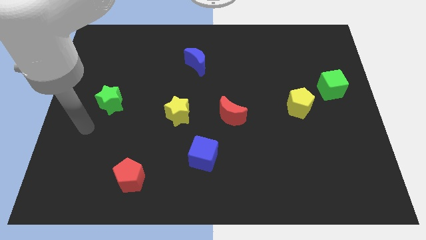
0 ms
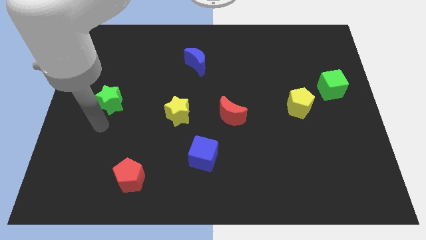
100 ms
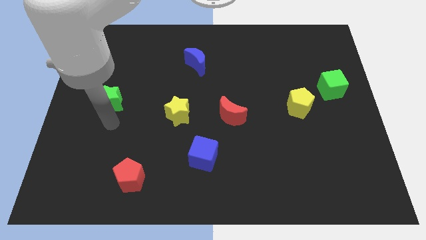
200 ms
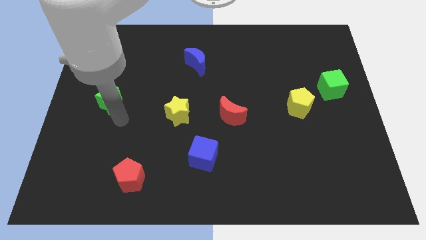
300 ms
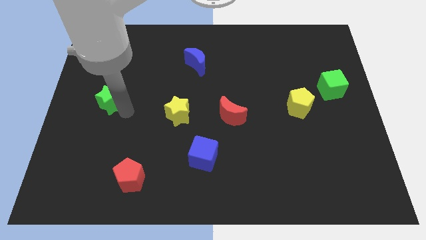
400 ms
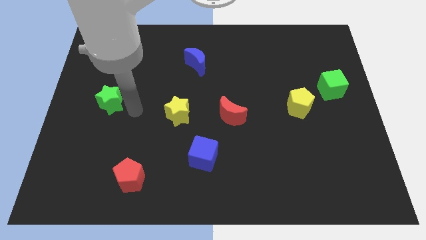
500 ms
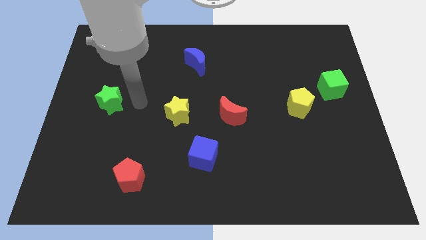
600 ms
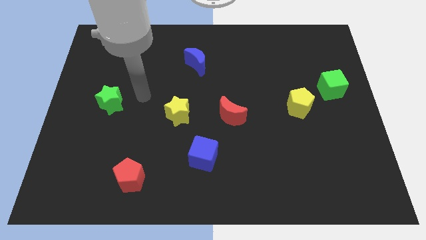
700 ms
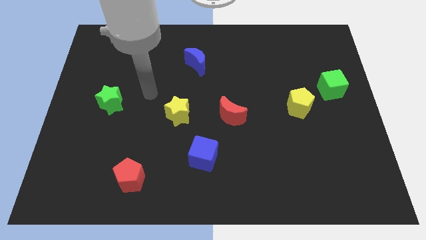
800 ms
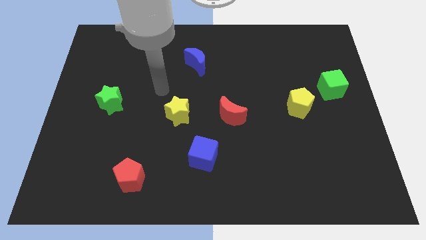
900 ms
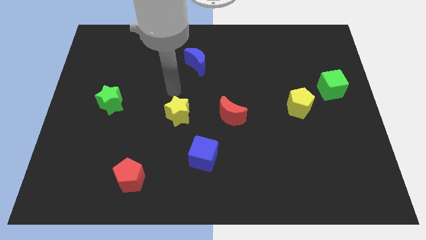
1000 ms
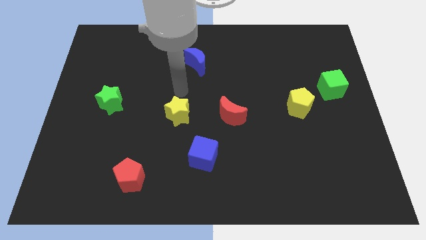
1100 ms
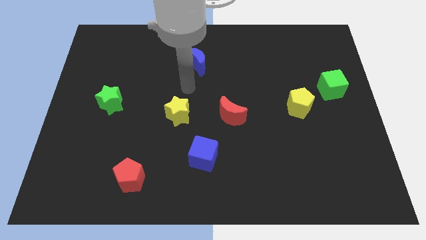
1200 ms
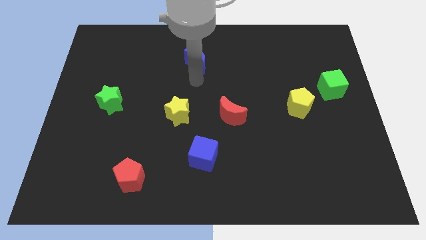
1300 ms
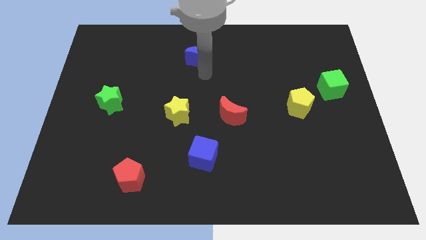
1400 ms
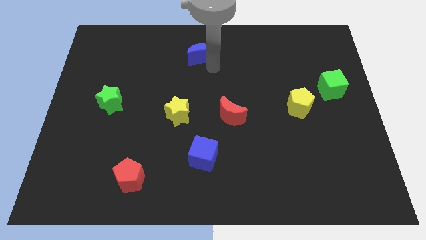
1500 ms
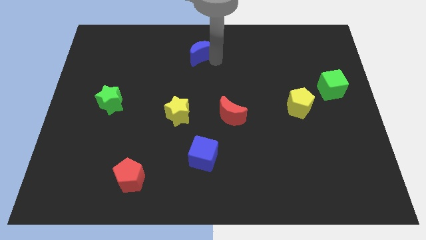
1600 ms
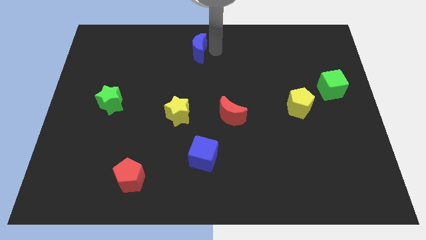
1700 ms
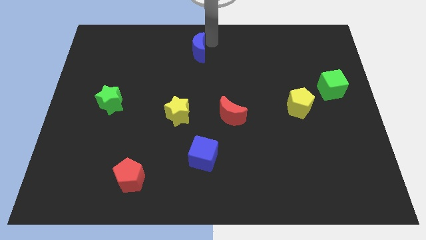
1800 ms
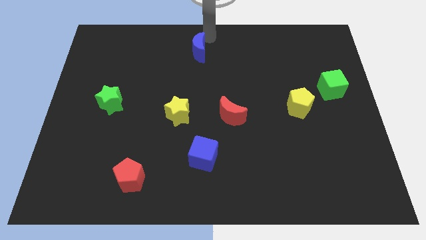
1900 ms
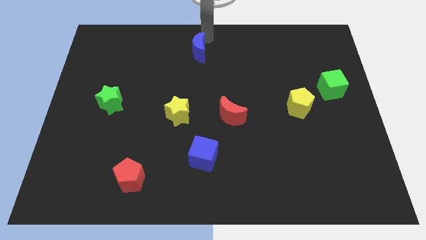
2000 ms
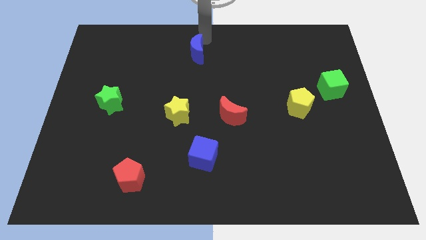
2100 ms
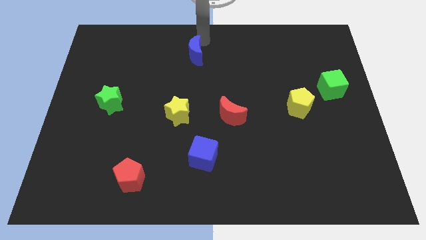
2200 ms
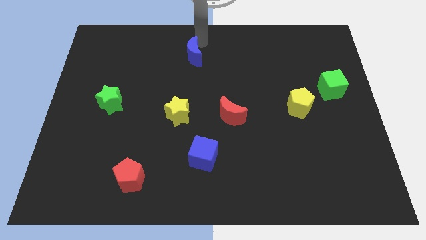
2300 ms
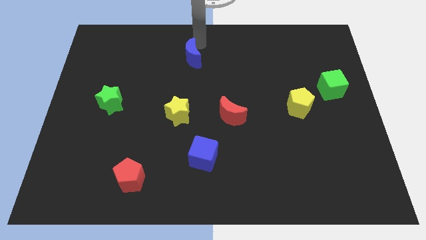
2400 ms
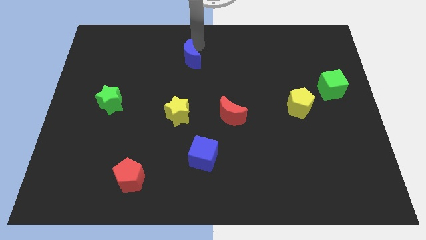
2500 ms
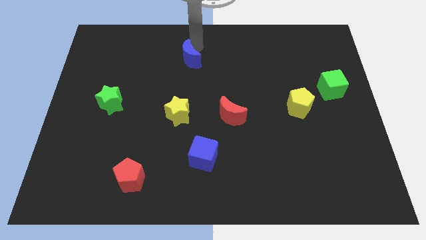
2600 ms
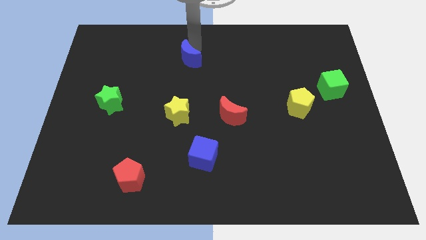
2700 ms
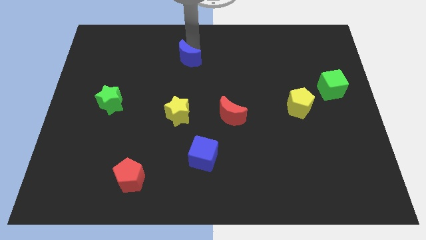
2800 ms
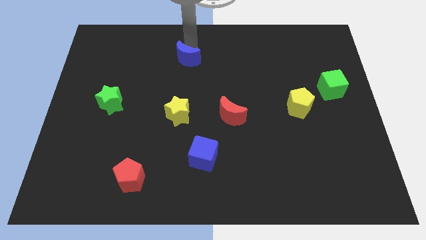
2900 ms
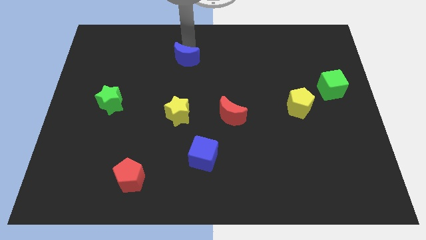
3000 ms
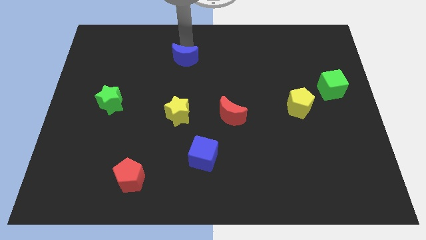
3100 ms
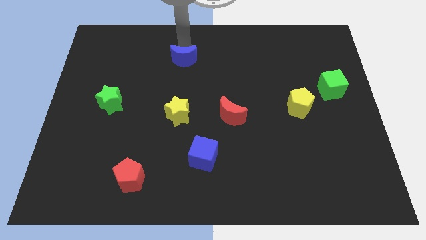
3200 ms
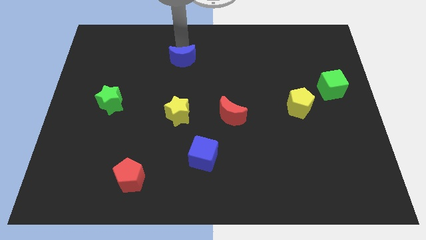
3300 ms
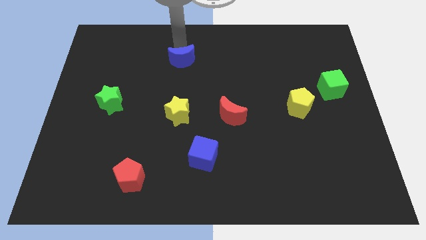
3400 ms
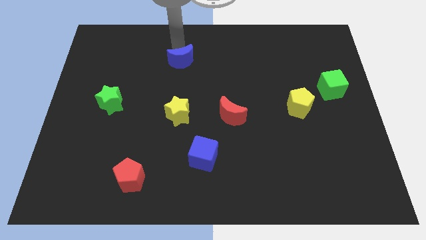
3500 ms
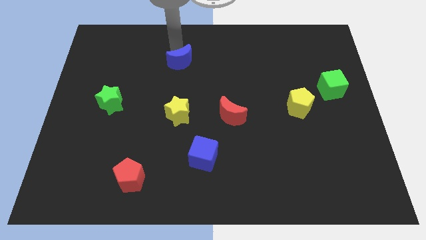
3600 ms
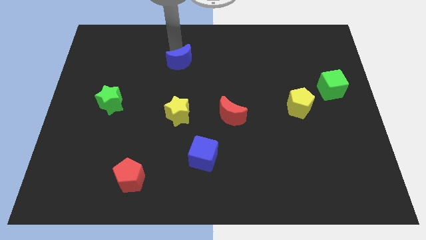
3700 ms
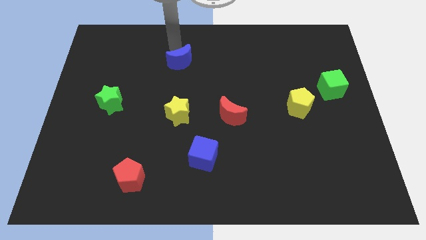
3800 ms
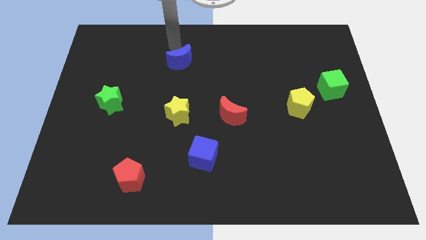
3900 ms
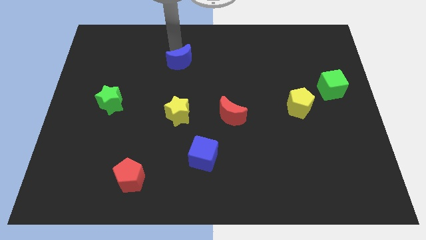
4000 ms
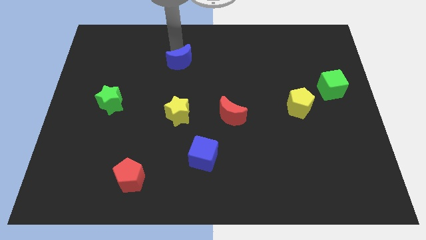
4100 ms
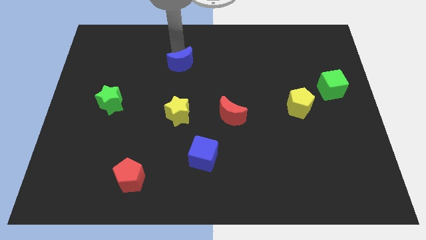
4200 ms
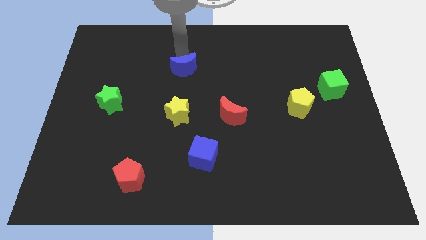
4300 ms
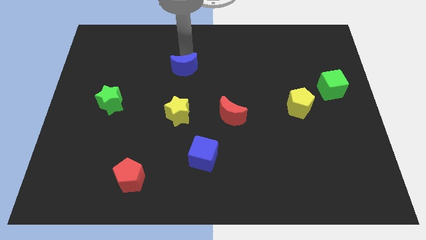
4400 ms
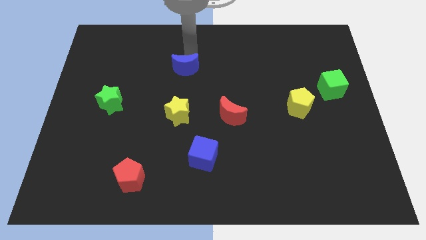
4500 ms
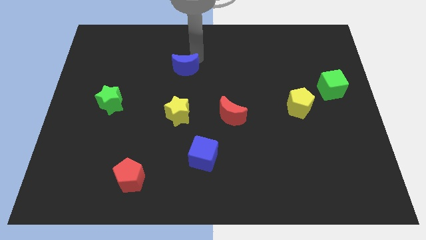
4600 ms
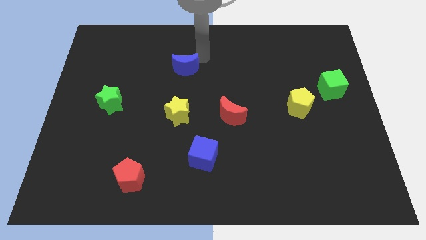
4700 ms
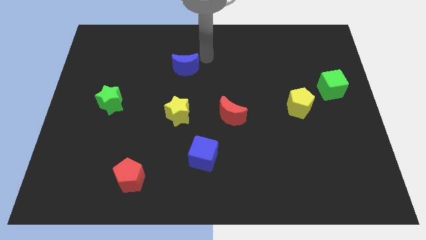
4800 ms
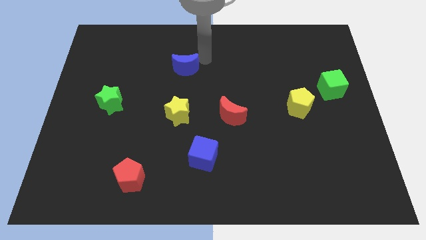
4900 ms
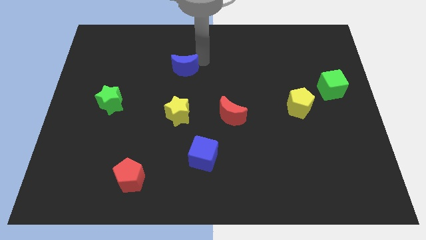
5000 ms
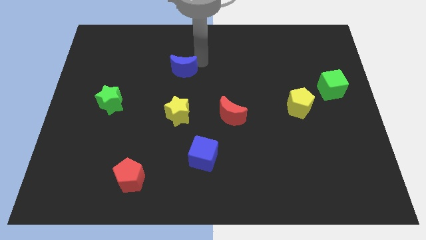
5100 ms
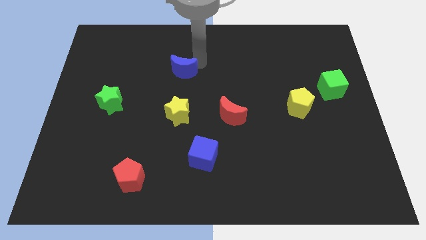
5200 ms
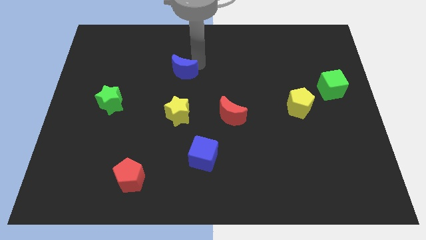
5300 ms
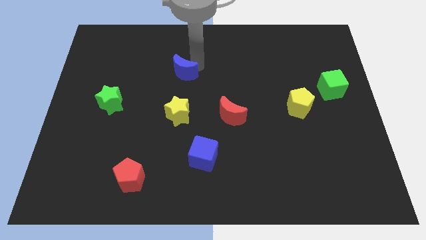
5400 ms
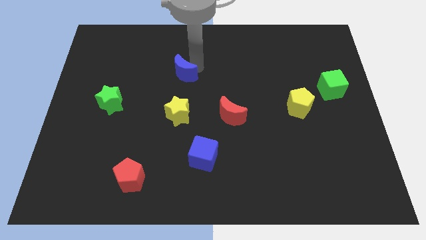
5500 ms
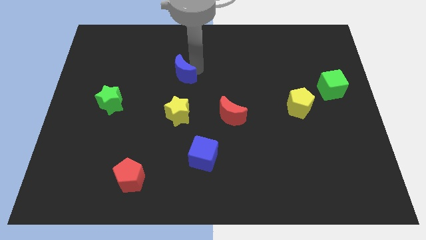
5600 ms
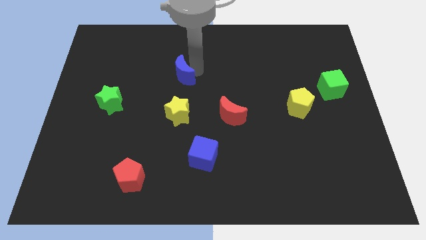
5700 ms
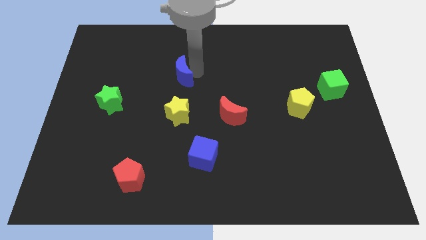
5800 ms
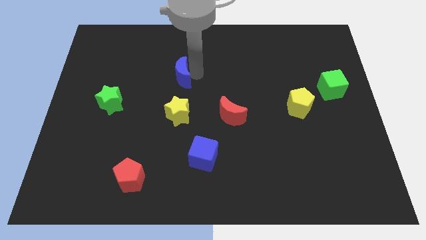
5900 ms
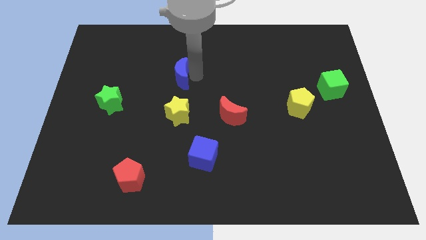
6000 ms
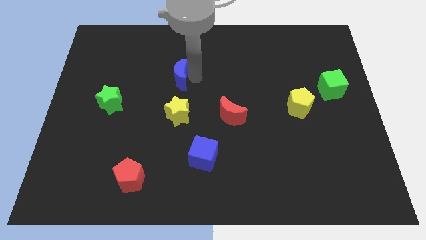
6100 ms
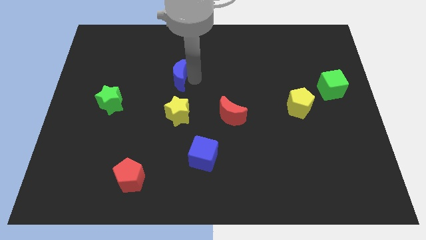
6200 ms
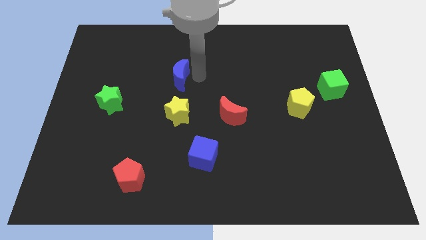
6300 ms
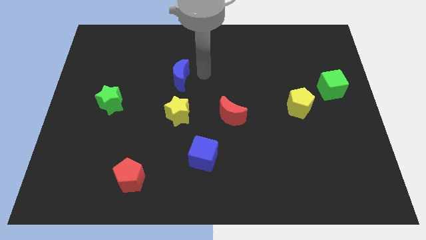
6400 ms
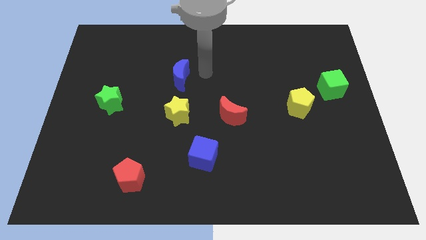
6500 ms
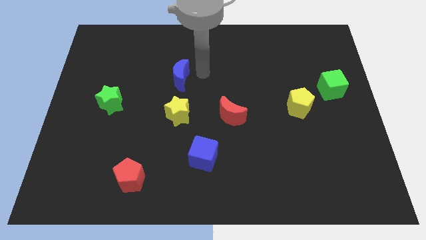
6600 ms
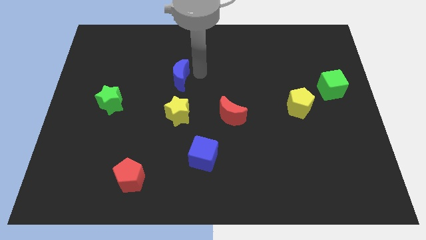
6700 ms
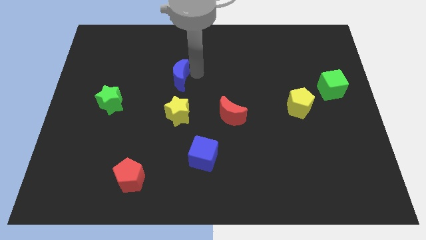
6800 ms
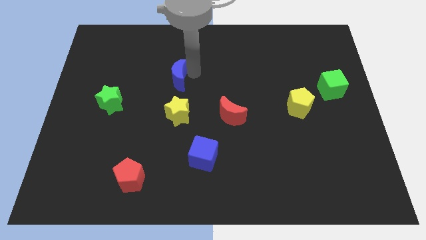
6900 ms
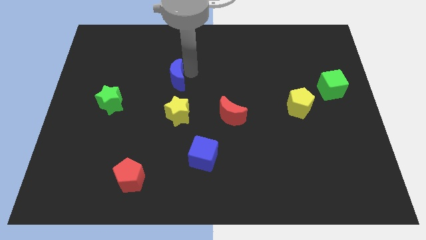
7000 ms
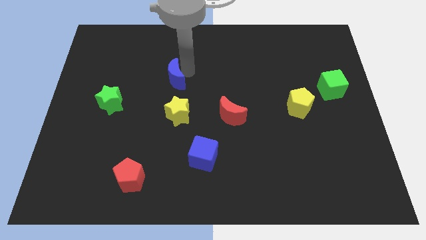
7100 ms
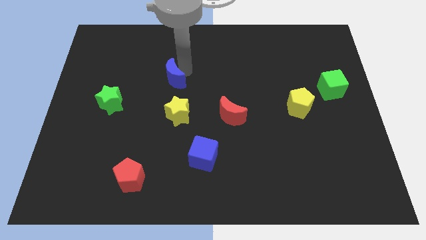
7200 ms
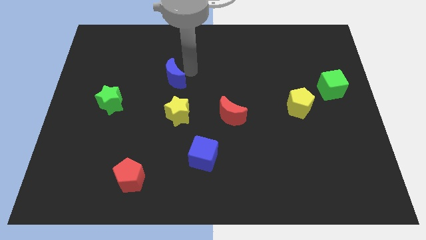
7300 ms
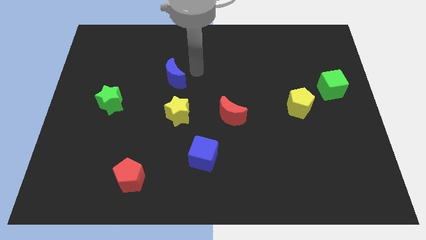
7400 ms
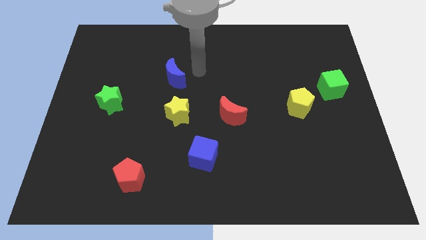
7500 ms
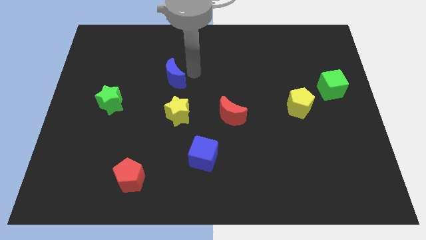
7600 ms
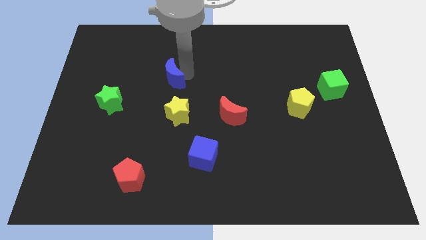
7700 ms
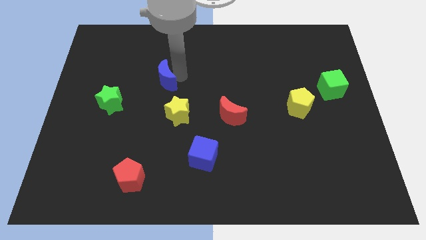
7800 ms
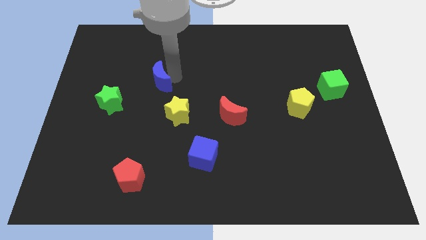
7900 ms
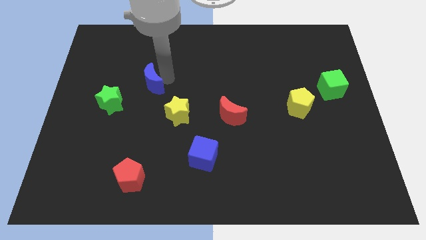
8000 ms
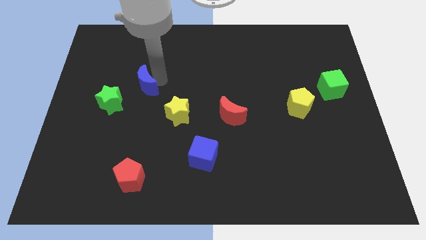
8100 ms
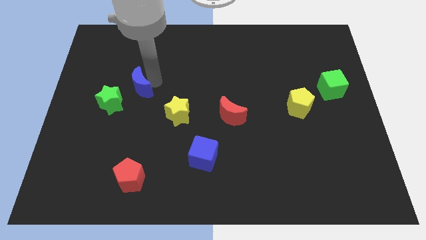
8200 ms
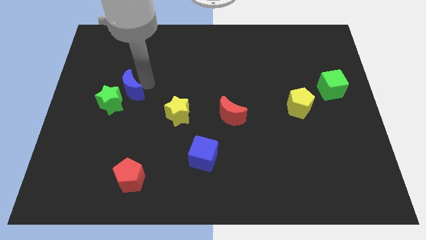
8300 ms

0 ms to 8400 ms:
slide the blue moon close to the green star
